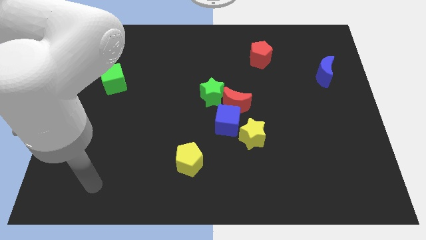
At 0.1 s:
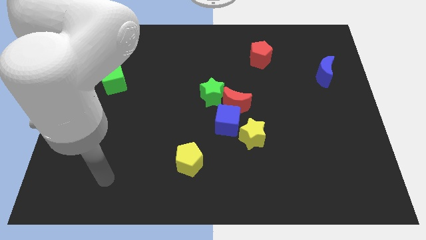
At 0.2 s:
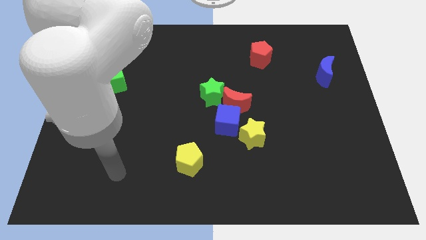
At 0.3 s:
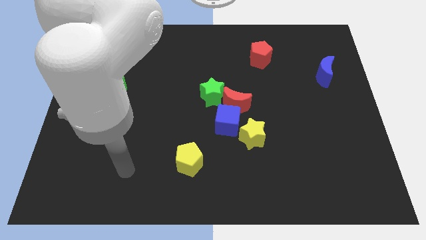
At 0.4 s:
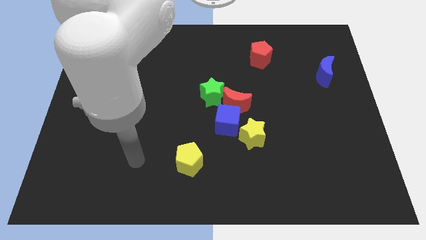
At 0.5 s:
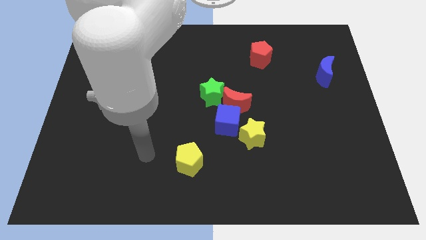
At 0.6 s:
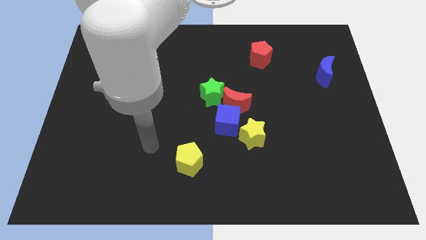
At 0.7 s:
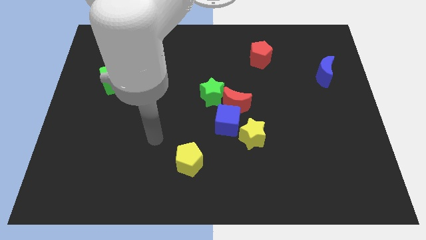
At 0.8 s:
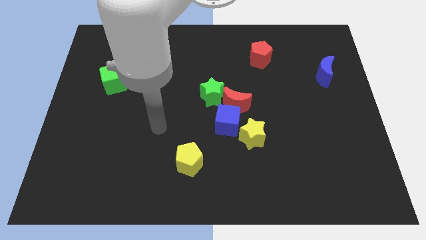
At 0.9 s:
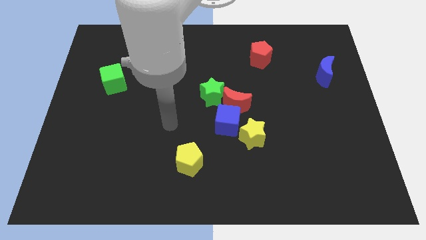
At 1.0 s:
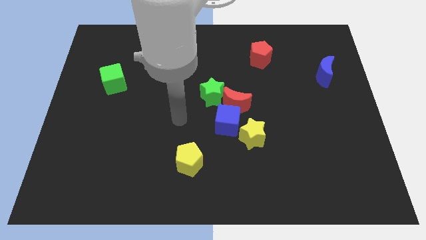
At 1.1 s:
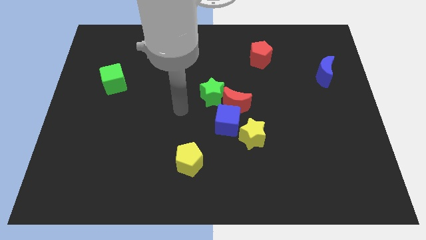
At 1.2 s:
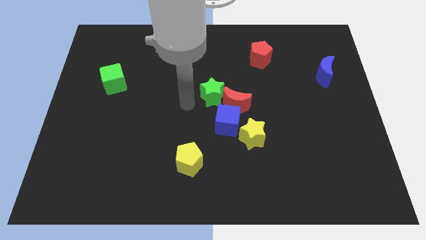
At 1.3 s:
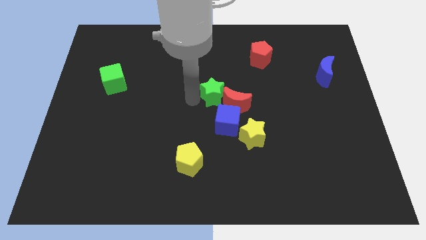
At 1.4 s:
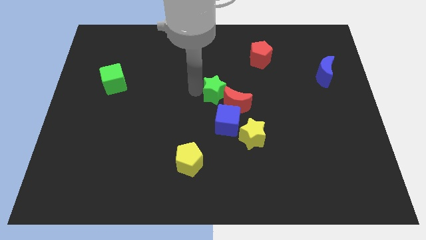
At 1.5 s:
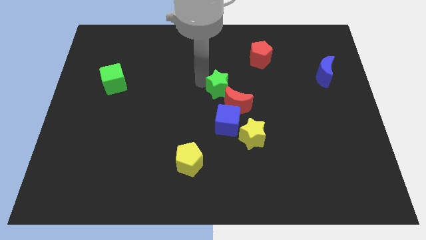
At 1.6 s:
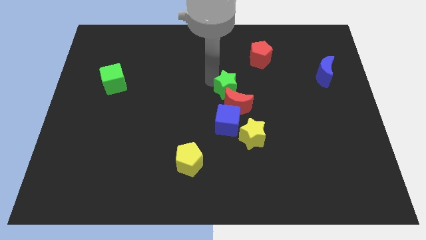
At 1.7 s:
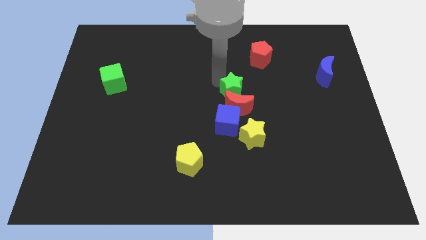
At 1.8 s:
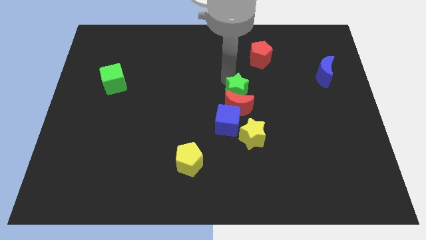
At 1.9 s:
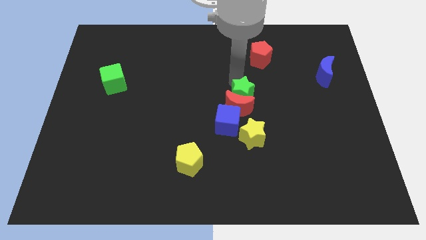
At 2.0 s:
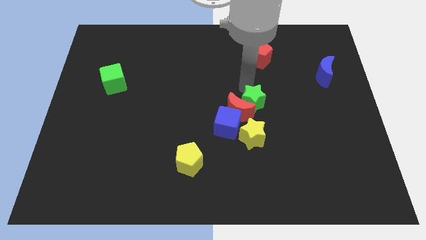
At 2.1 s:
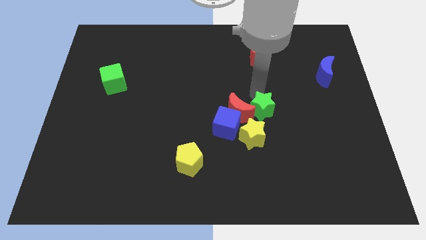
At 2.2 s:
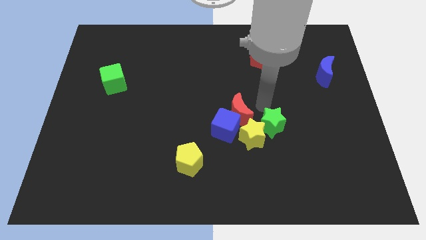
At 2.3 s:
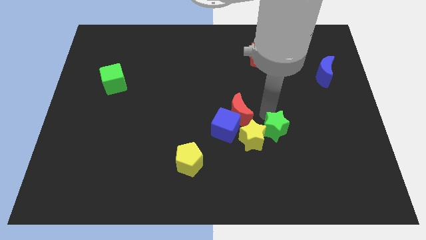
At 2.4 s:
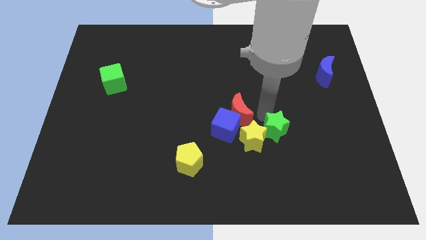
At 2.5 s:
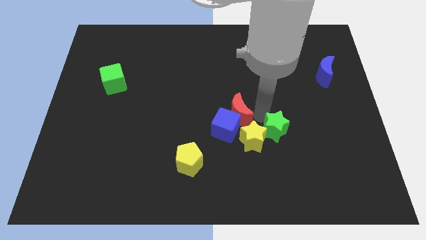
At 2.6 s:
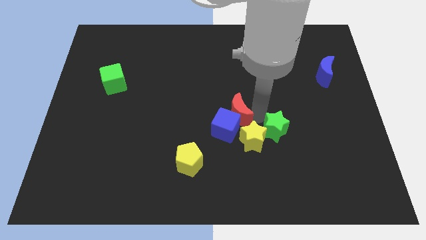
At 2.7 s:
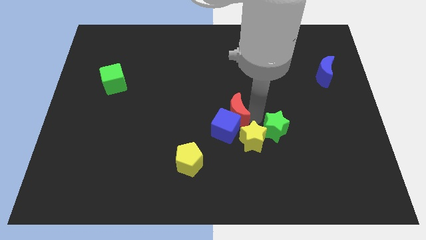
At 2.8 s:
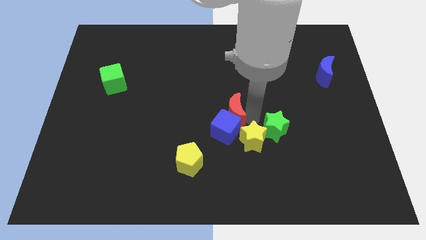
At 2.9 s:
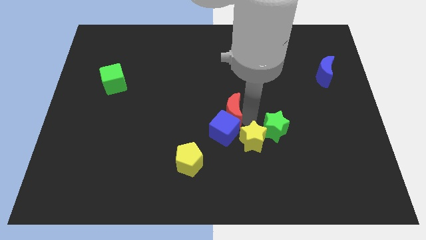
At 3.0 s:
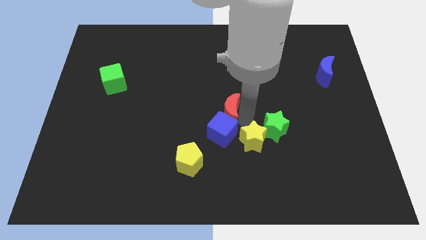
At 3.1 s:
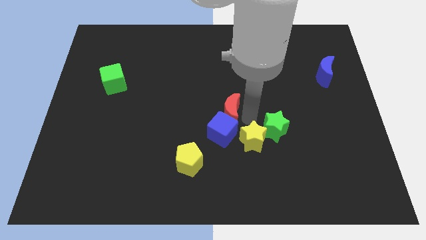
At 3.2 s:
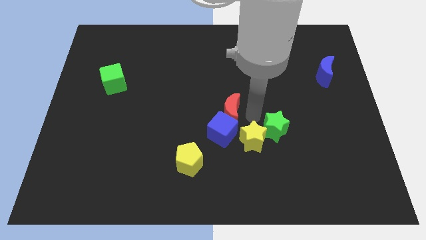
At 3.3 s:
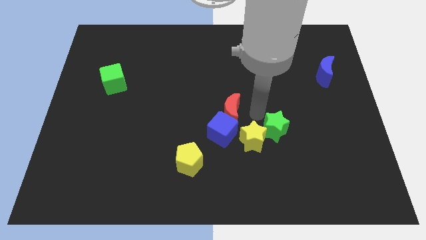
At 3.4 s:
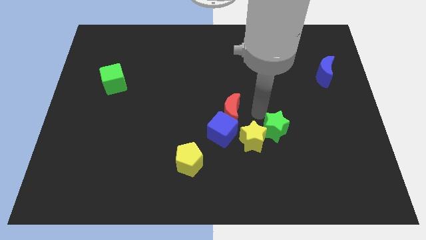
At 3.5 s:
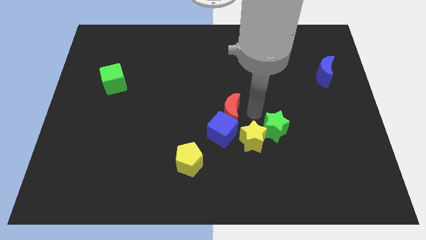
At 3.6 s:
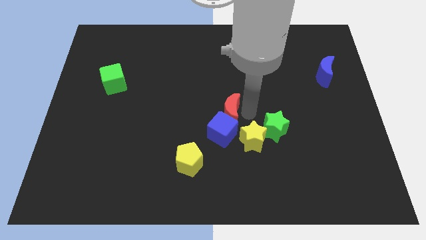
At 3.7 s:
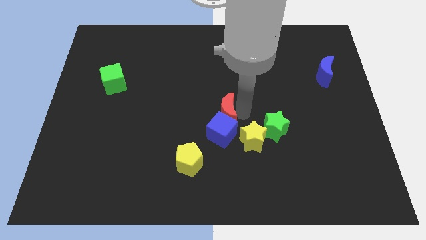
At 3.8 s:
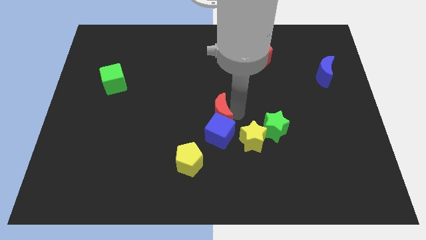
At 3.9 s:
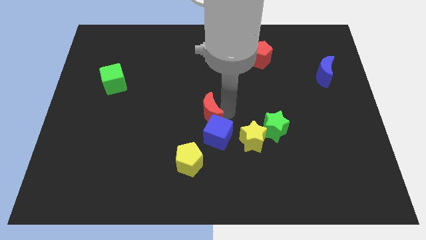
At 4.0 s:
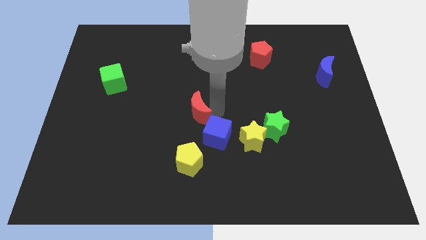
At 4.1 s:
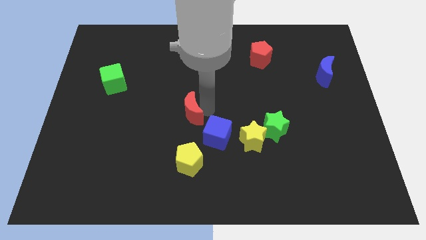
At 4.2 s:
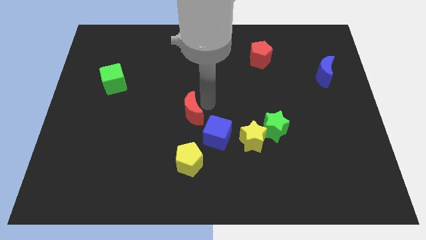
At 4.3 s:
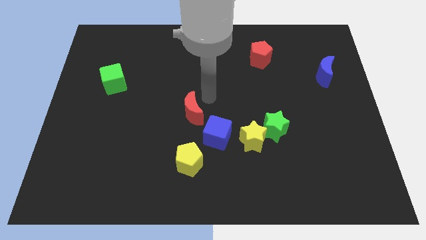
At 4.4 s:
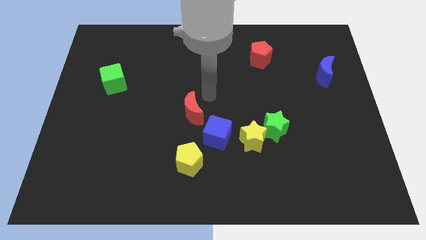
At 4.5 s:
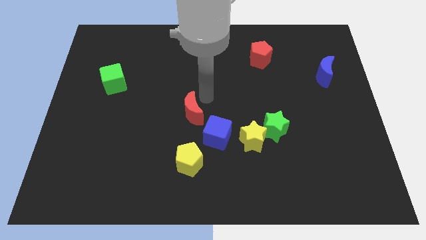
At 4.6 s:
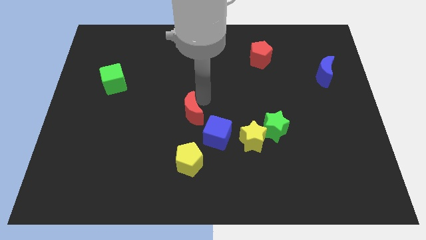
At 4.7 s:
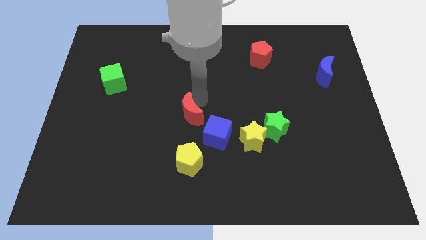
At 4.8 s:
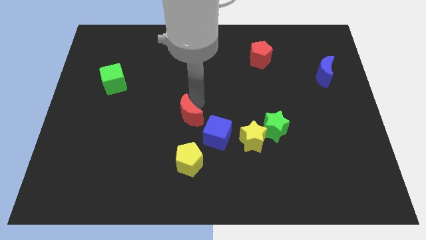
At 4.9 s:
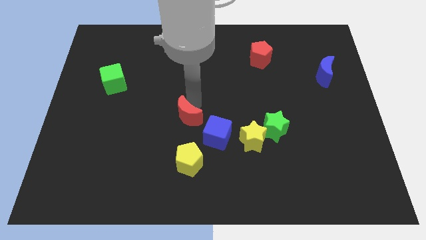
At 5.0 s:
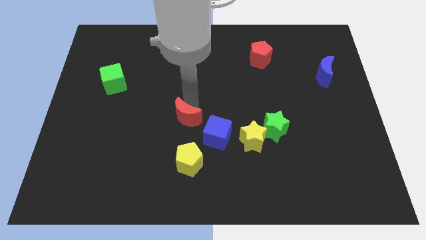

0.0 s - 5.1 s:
slide the red moon to the left side of the blue cube

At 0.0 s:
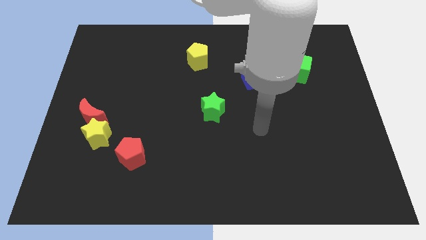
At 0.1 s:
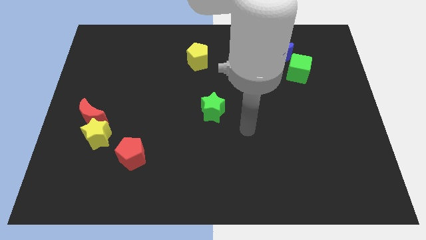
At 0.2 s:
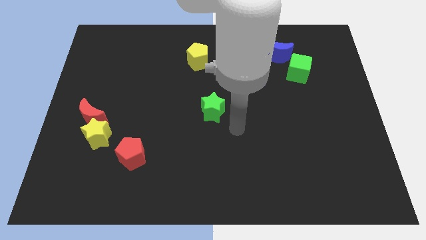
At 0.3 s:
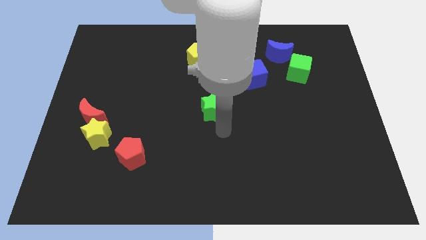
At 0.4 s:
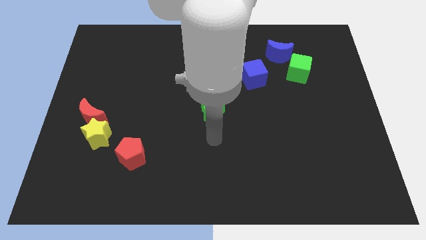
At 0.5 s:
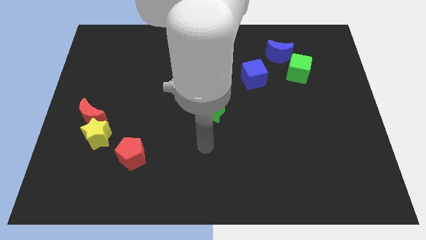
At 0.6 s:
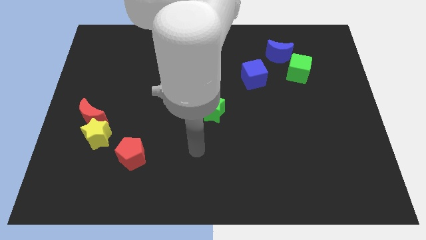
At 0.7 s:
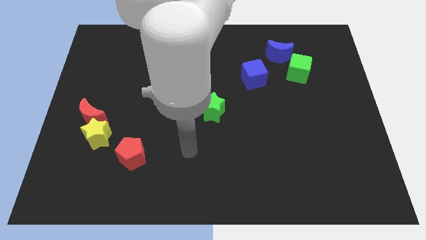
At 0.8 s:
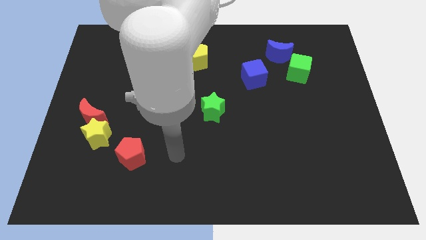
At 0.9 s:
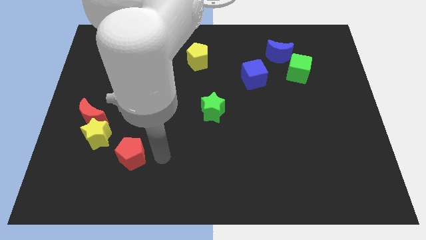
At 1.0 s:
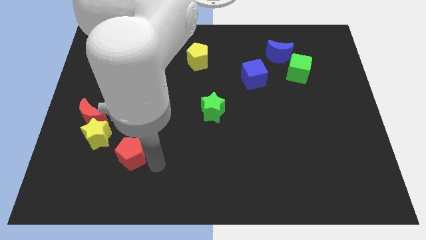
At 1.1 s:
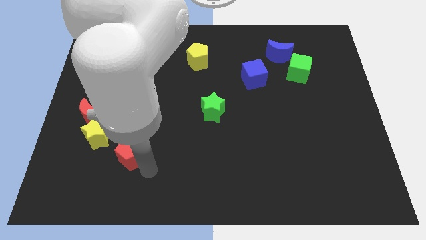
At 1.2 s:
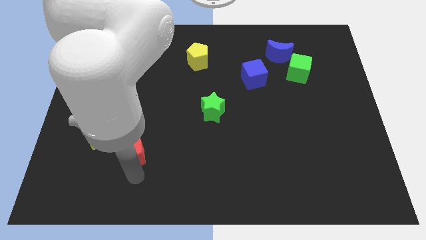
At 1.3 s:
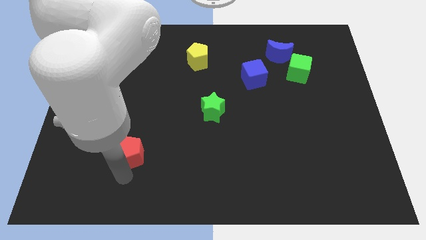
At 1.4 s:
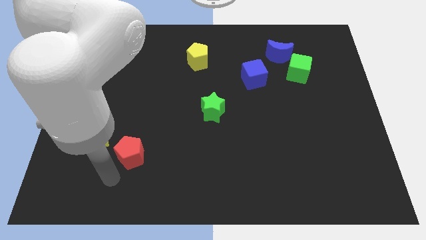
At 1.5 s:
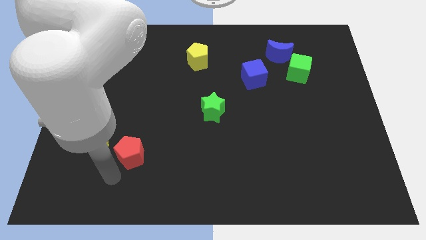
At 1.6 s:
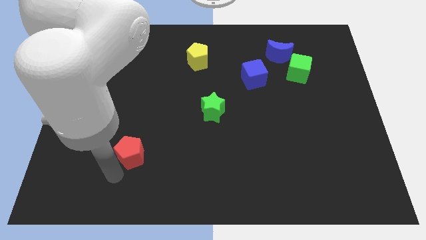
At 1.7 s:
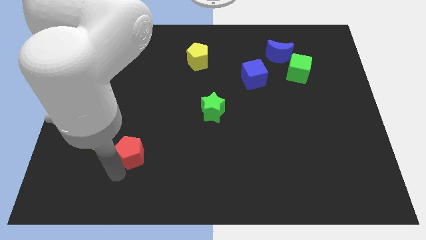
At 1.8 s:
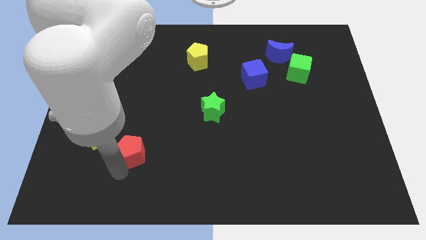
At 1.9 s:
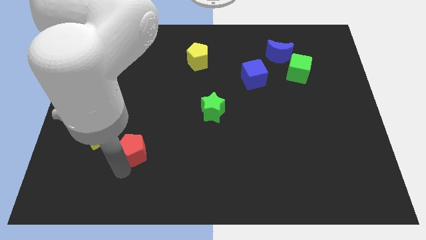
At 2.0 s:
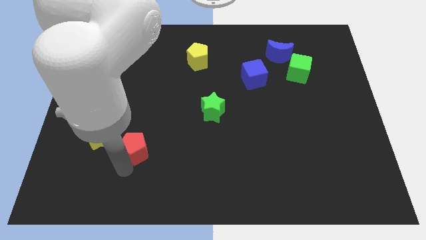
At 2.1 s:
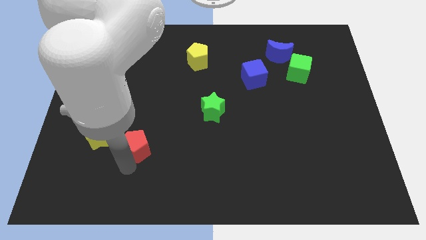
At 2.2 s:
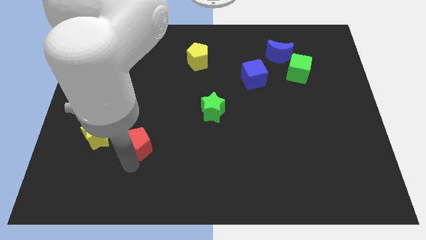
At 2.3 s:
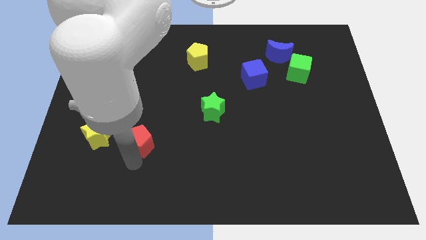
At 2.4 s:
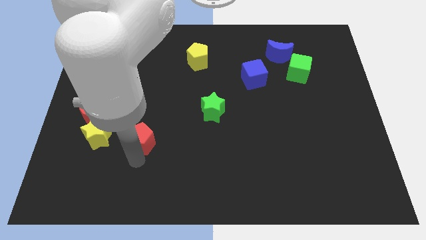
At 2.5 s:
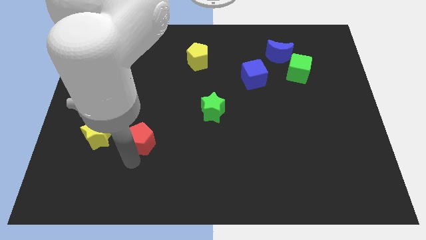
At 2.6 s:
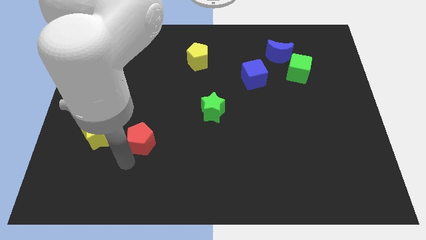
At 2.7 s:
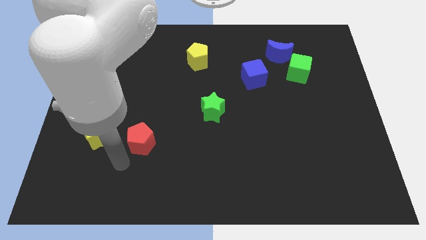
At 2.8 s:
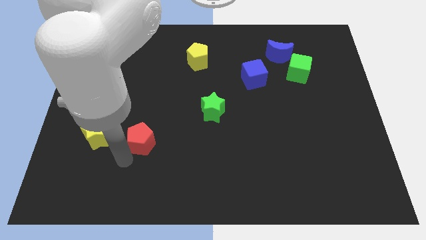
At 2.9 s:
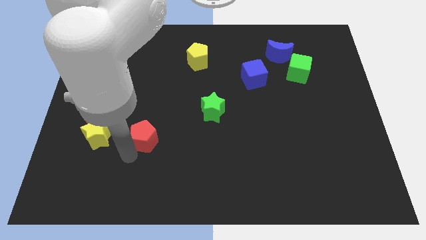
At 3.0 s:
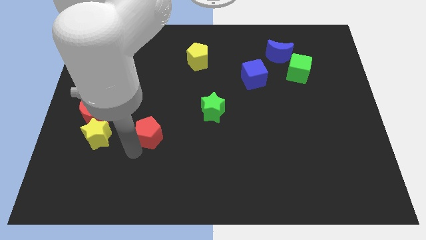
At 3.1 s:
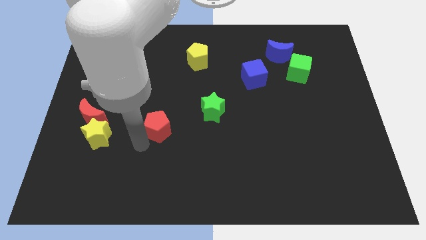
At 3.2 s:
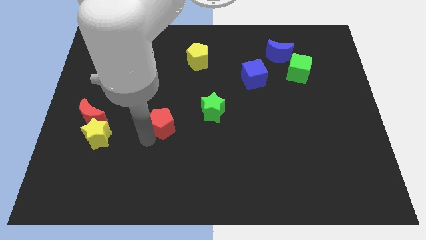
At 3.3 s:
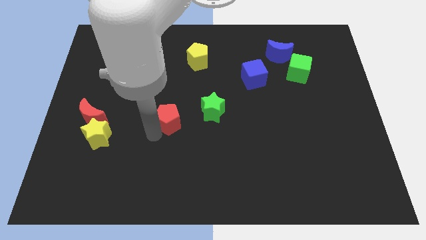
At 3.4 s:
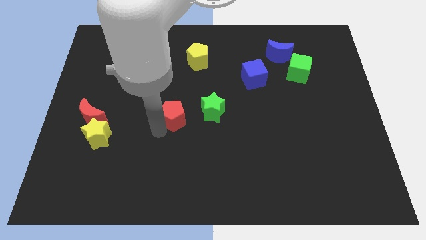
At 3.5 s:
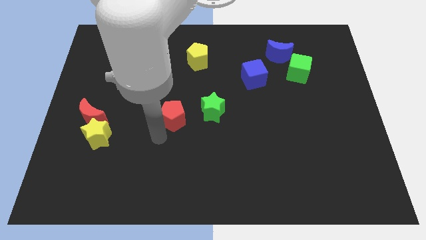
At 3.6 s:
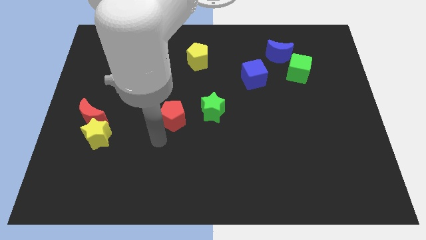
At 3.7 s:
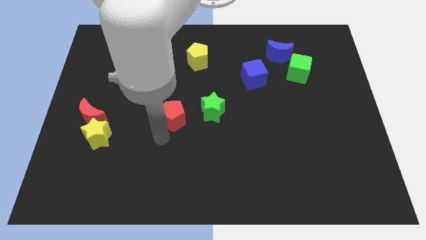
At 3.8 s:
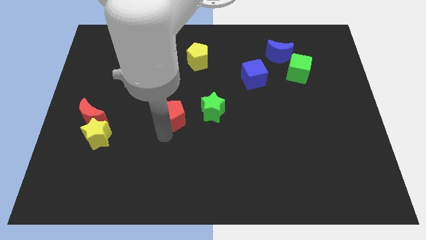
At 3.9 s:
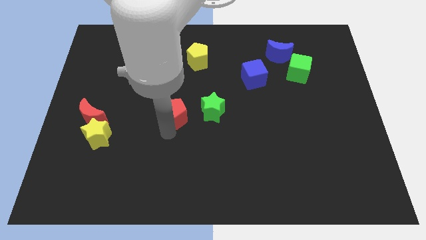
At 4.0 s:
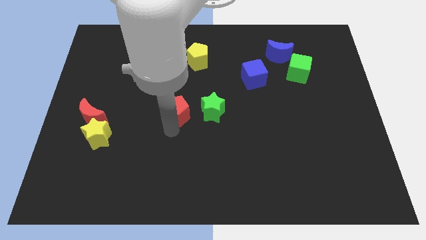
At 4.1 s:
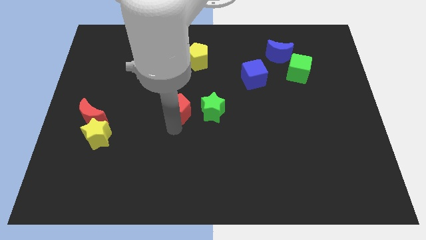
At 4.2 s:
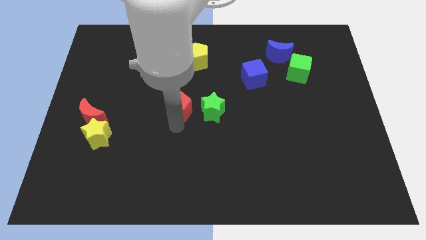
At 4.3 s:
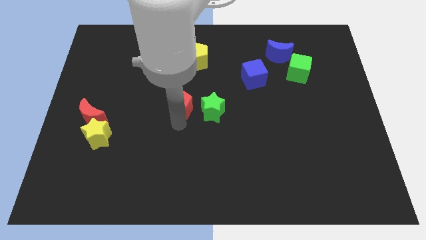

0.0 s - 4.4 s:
put the red pentagon diagonally up and to the left of the green star
